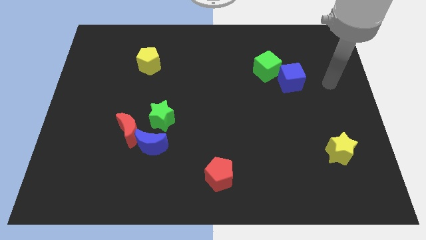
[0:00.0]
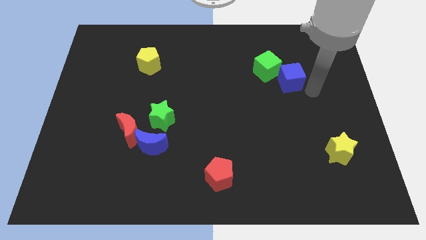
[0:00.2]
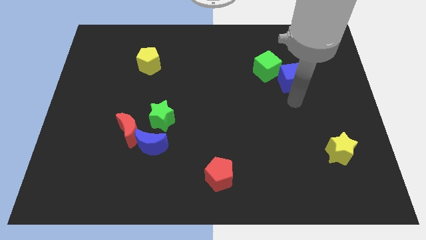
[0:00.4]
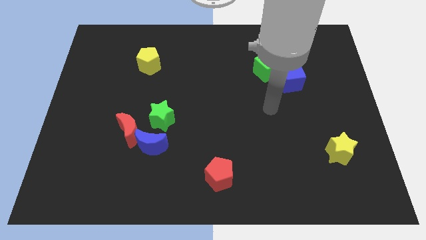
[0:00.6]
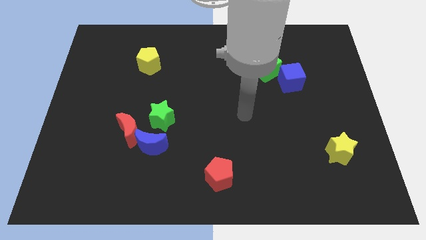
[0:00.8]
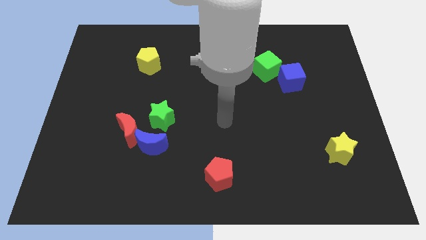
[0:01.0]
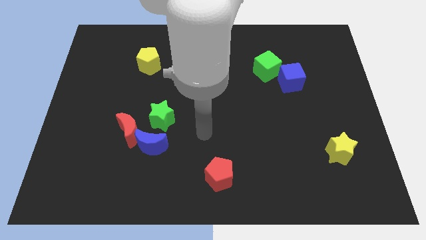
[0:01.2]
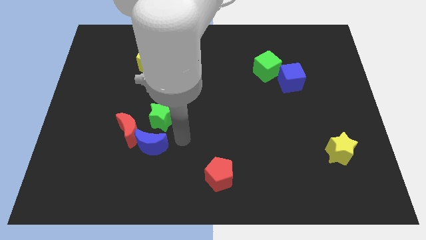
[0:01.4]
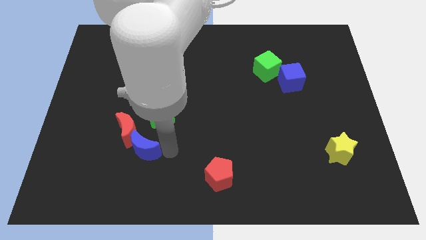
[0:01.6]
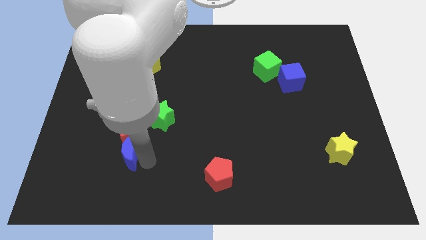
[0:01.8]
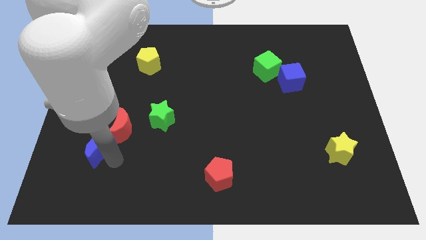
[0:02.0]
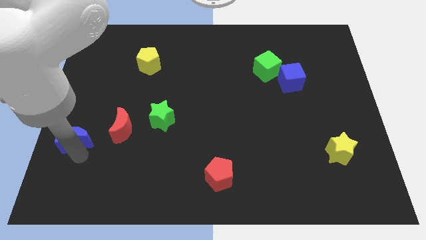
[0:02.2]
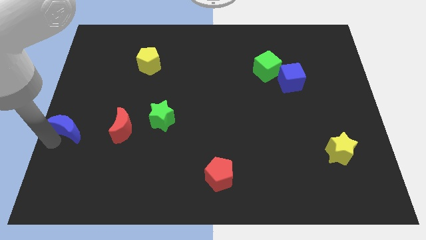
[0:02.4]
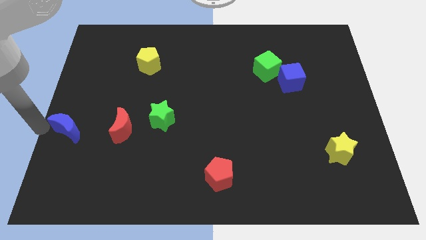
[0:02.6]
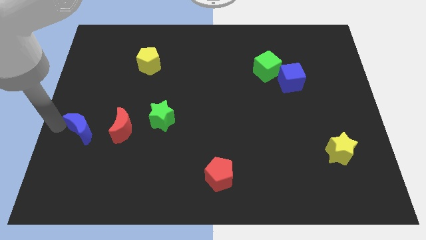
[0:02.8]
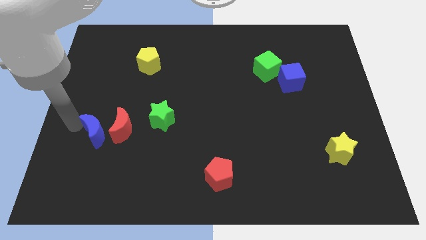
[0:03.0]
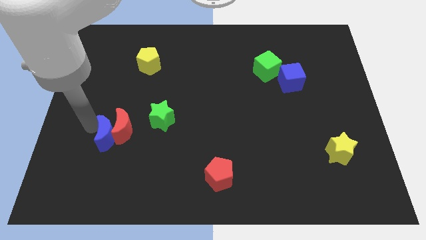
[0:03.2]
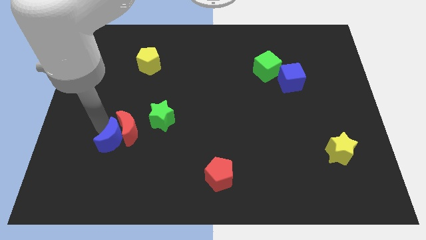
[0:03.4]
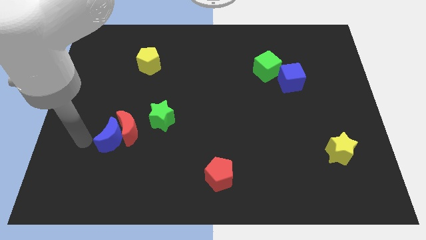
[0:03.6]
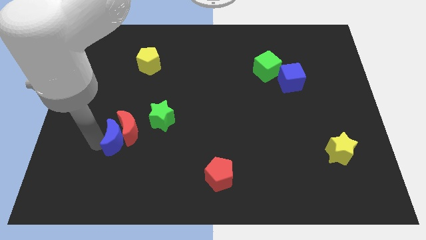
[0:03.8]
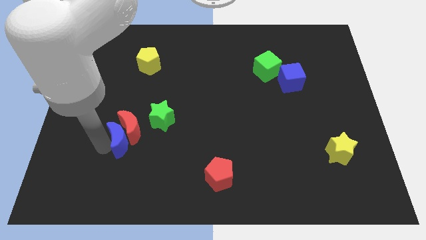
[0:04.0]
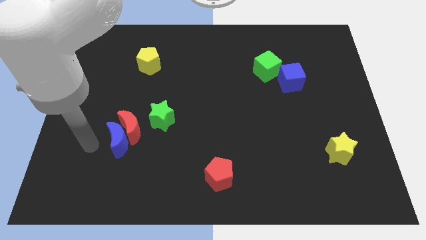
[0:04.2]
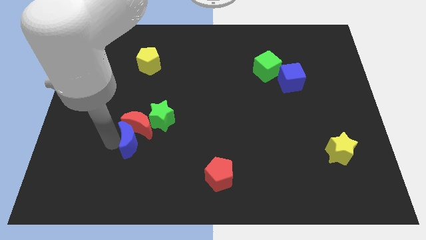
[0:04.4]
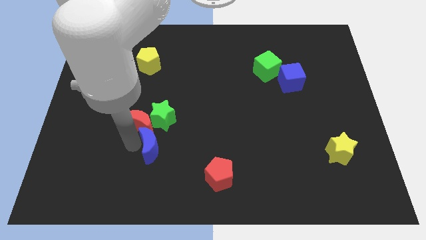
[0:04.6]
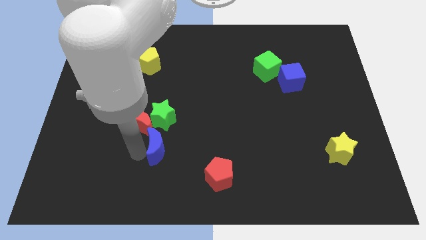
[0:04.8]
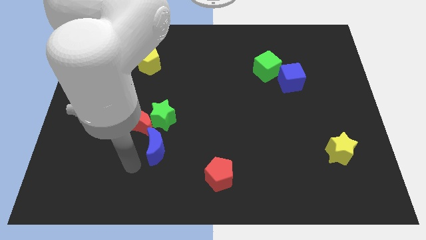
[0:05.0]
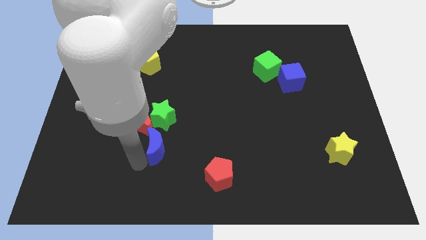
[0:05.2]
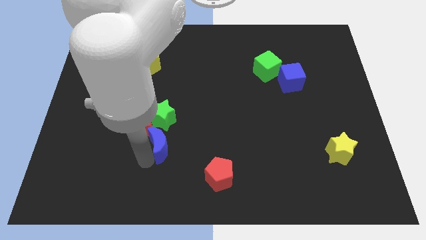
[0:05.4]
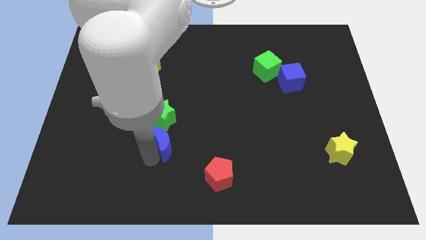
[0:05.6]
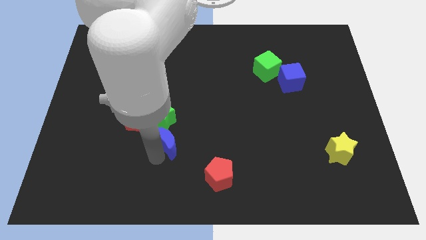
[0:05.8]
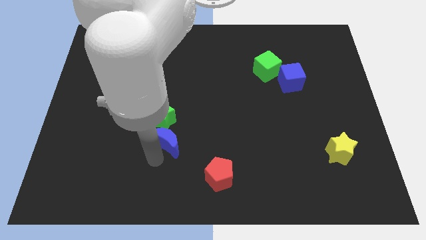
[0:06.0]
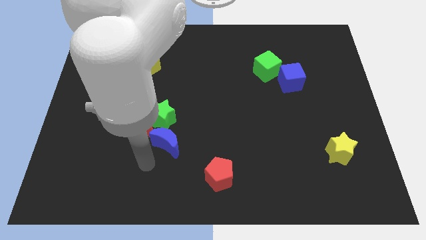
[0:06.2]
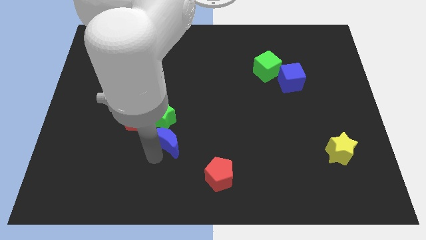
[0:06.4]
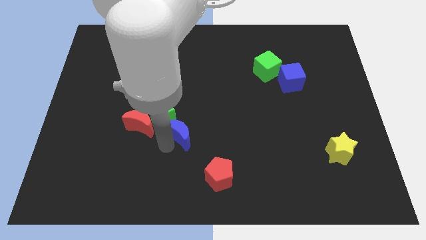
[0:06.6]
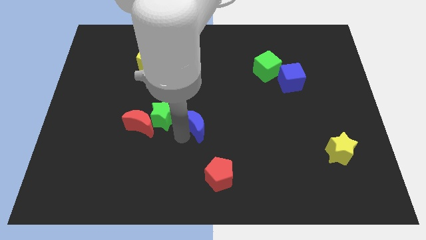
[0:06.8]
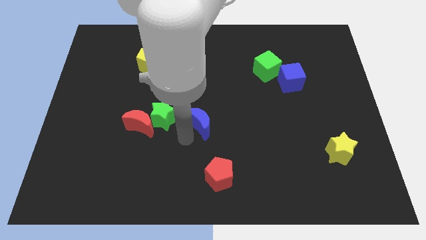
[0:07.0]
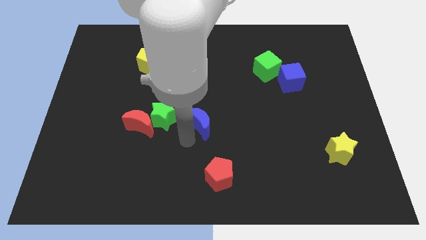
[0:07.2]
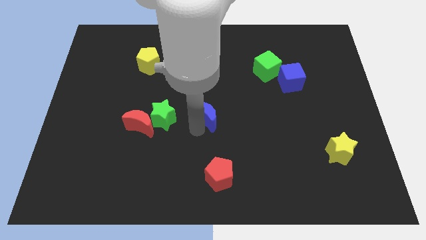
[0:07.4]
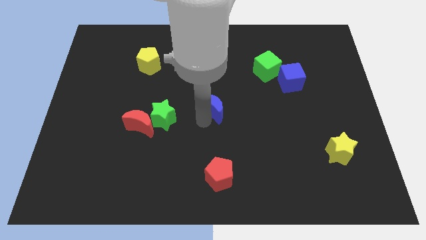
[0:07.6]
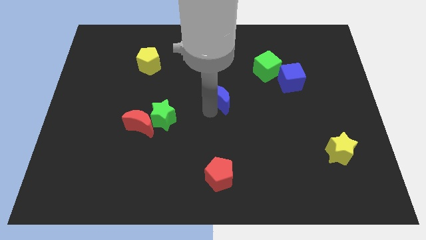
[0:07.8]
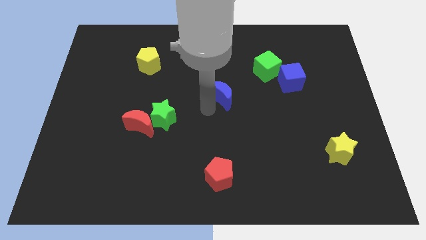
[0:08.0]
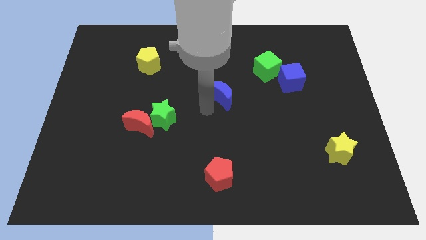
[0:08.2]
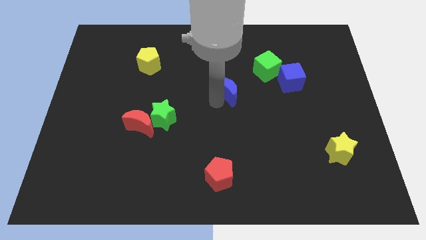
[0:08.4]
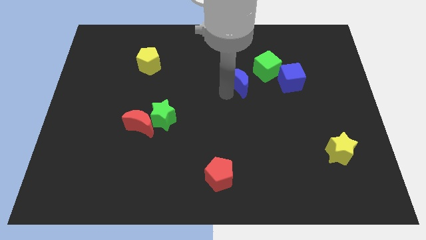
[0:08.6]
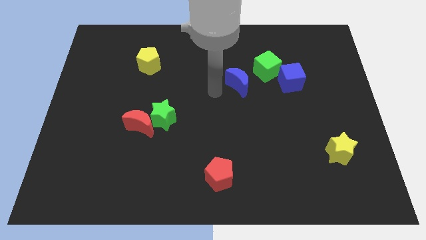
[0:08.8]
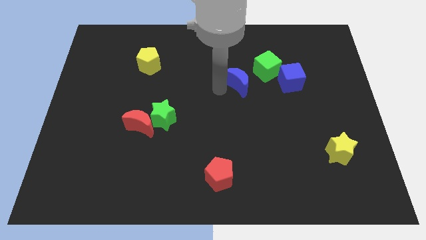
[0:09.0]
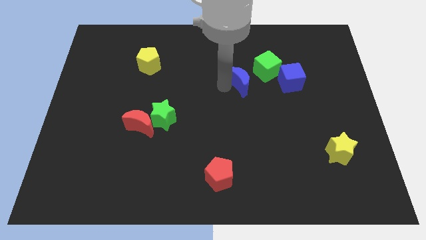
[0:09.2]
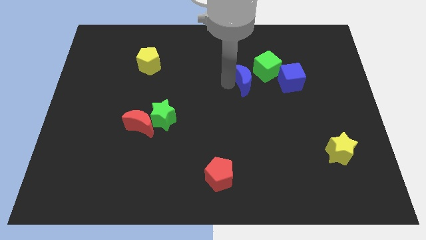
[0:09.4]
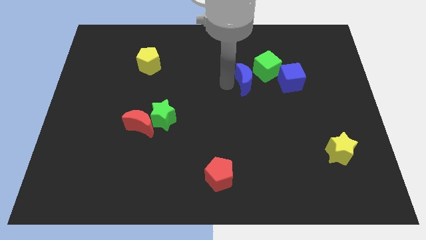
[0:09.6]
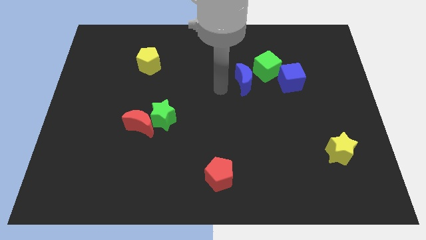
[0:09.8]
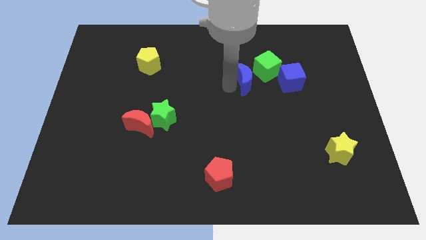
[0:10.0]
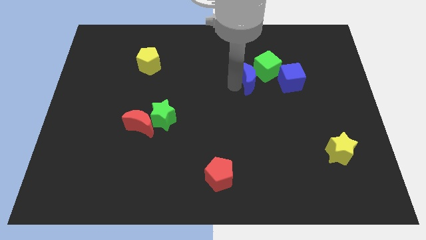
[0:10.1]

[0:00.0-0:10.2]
push the blue moon to the green cube

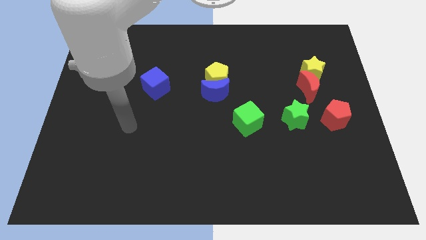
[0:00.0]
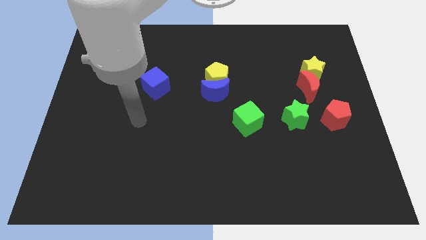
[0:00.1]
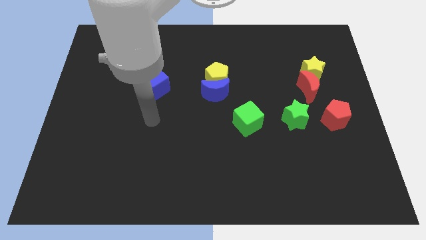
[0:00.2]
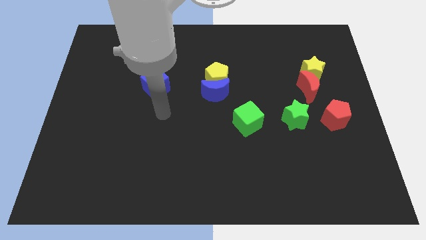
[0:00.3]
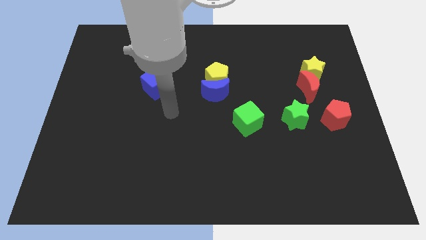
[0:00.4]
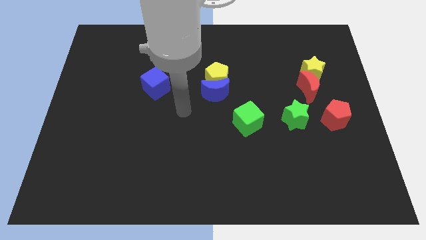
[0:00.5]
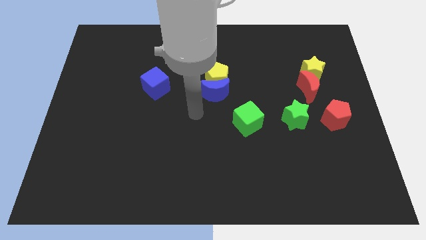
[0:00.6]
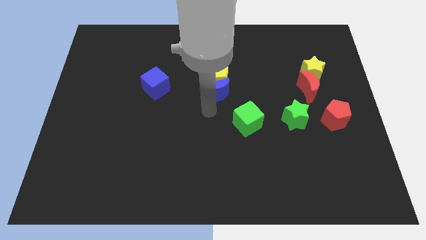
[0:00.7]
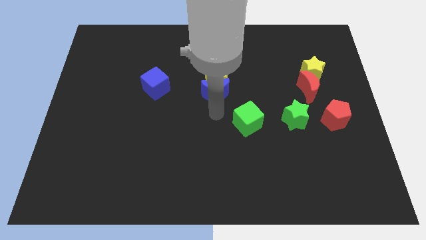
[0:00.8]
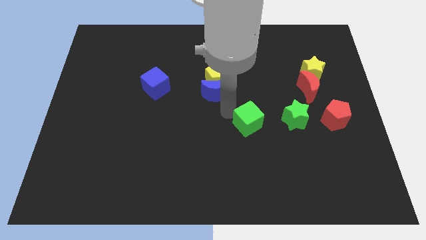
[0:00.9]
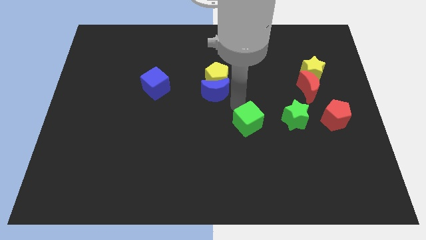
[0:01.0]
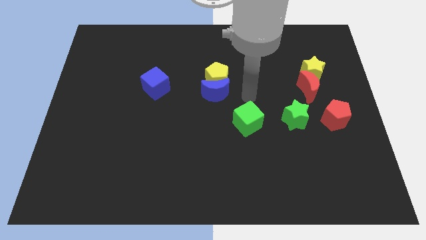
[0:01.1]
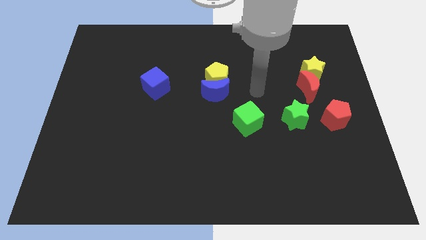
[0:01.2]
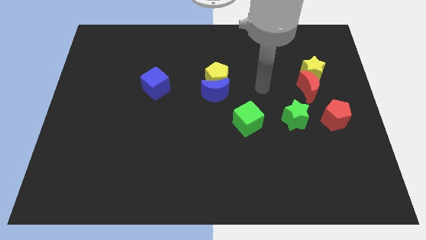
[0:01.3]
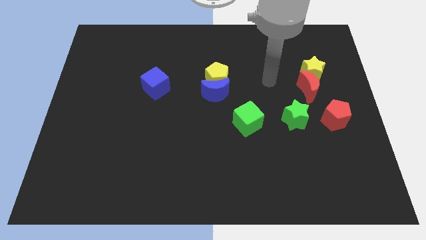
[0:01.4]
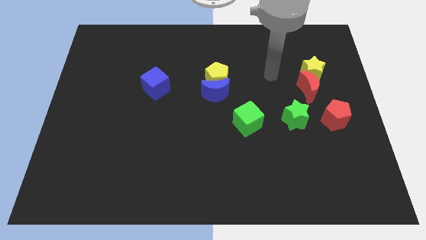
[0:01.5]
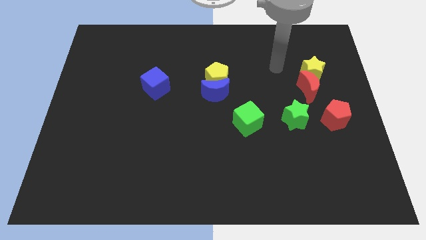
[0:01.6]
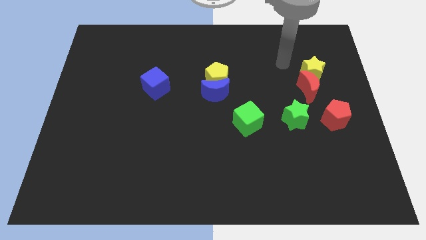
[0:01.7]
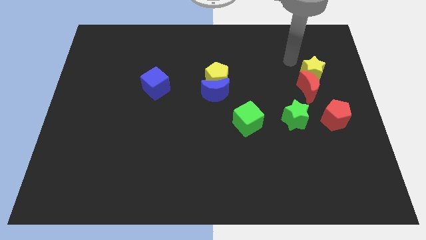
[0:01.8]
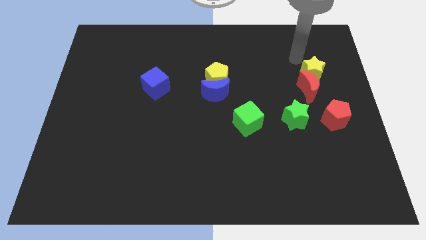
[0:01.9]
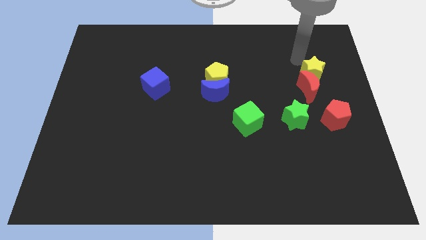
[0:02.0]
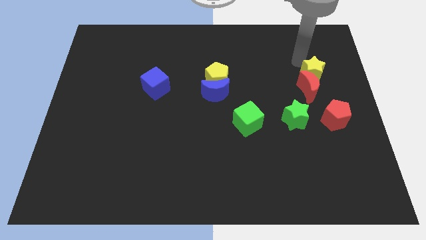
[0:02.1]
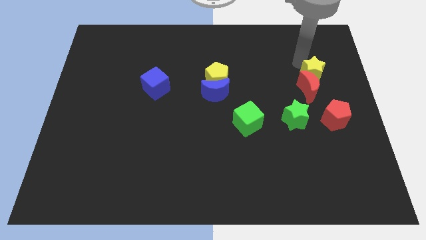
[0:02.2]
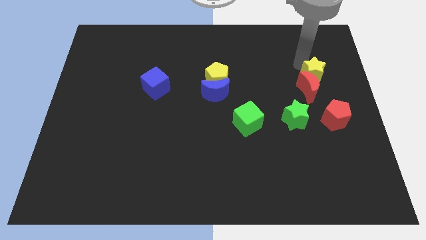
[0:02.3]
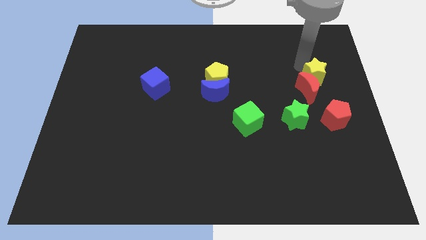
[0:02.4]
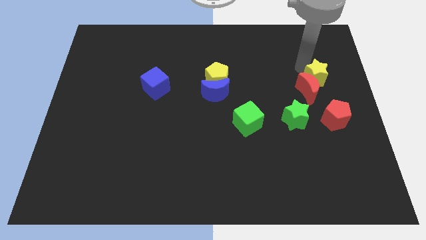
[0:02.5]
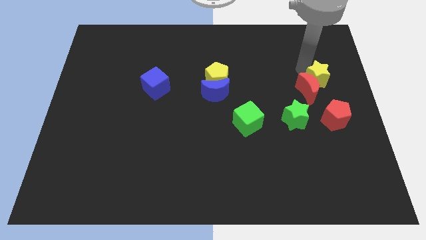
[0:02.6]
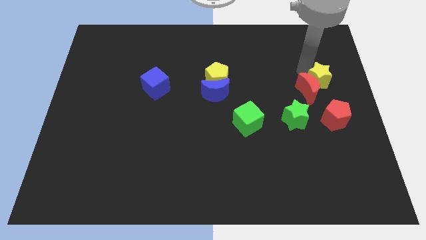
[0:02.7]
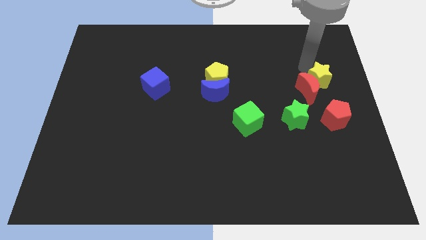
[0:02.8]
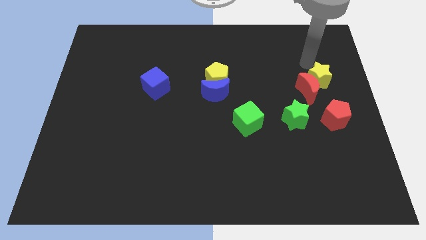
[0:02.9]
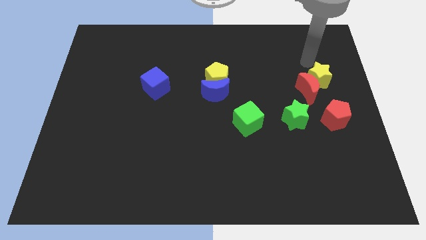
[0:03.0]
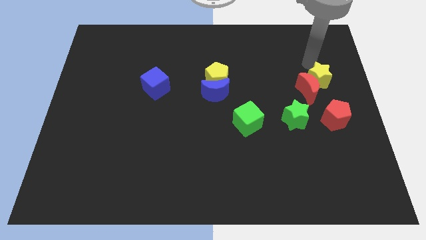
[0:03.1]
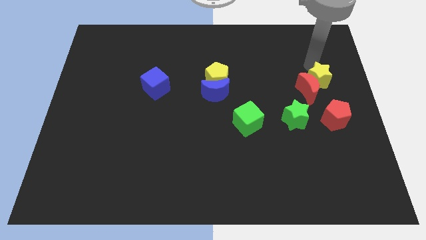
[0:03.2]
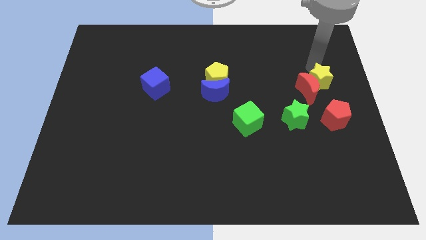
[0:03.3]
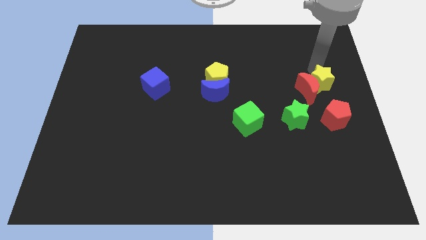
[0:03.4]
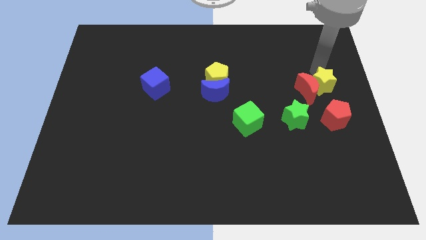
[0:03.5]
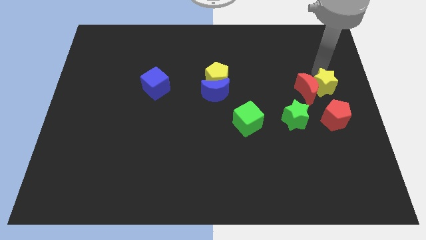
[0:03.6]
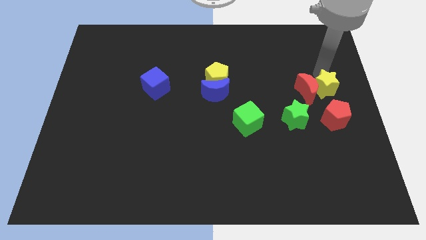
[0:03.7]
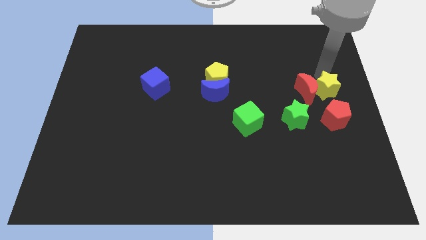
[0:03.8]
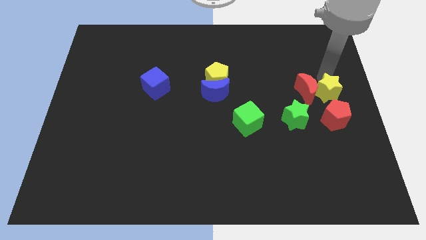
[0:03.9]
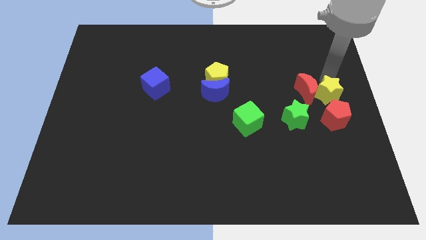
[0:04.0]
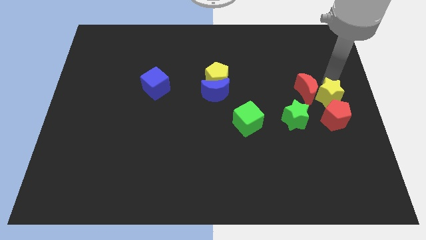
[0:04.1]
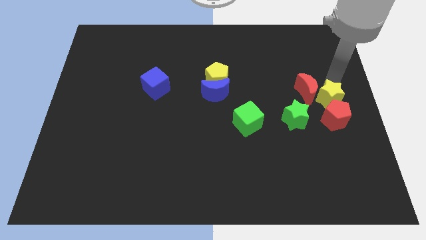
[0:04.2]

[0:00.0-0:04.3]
push the yellow star towards the red pentagon
